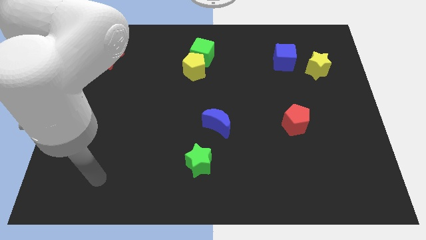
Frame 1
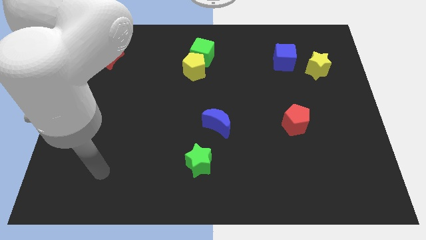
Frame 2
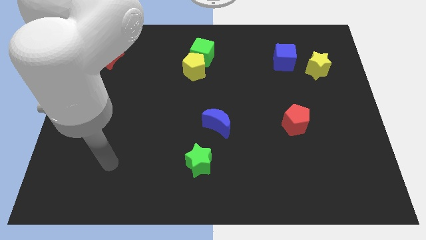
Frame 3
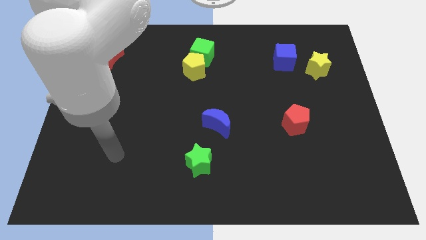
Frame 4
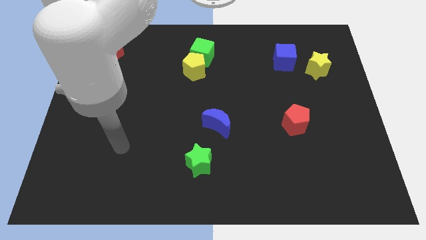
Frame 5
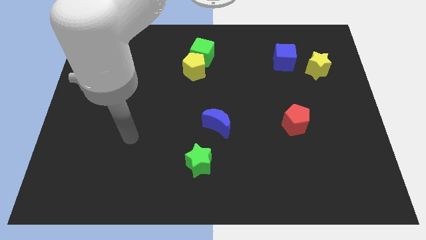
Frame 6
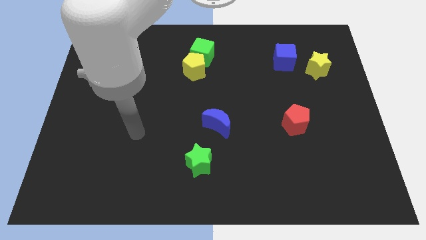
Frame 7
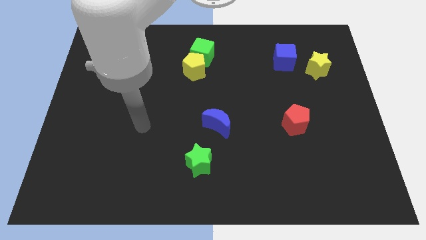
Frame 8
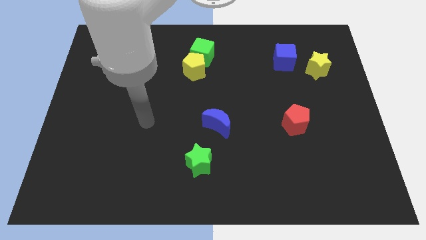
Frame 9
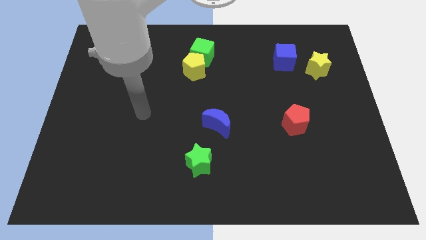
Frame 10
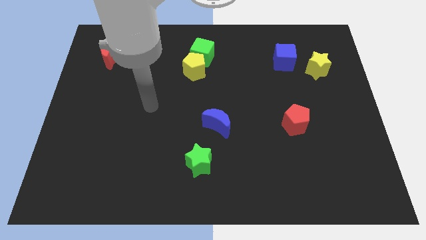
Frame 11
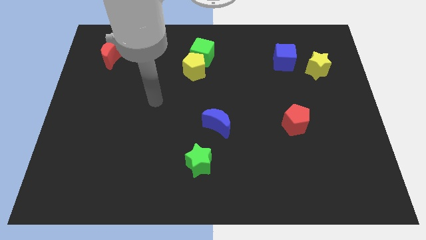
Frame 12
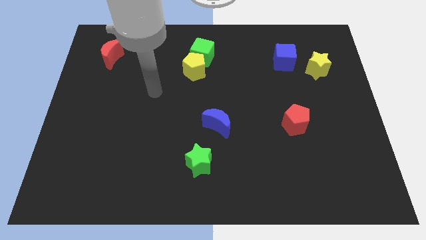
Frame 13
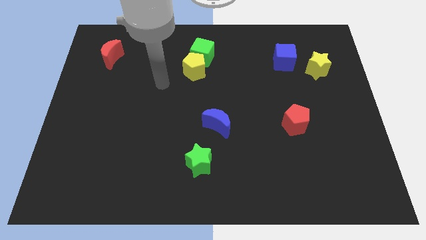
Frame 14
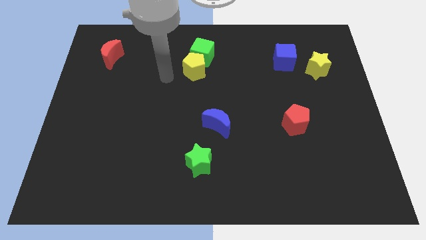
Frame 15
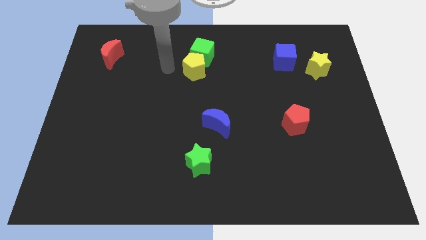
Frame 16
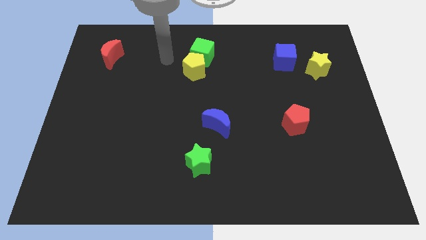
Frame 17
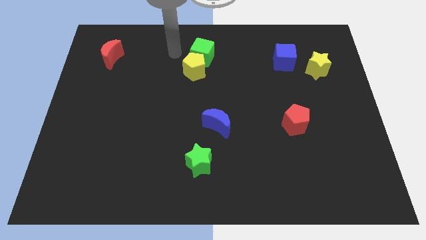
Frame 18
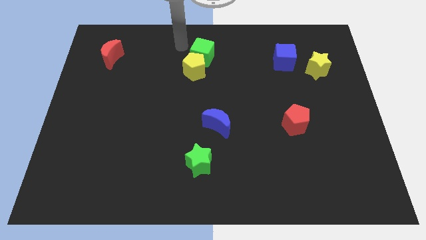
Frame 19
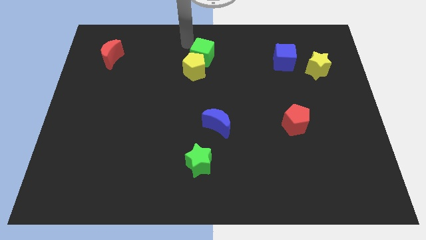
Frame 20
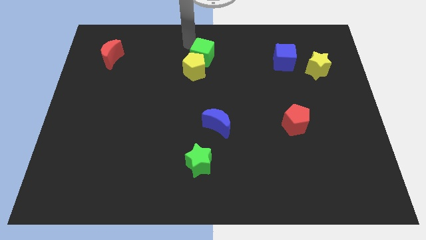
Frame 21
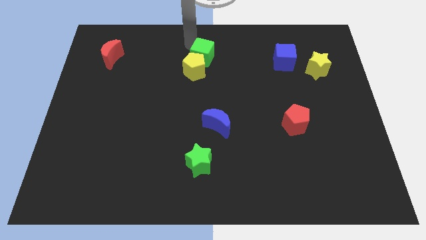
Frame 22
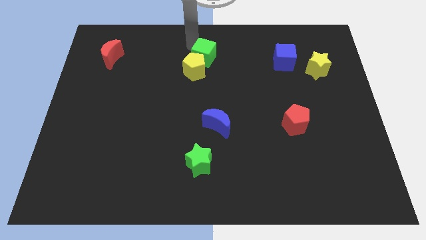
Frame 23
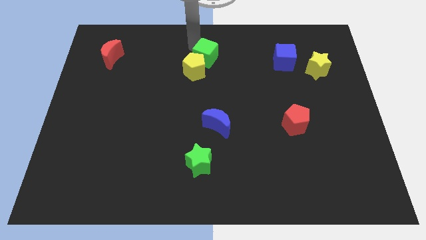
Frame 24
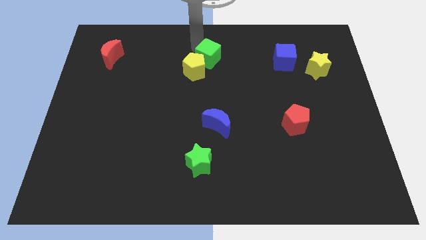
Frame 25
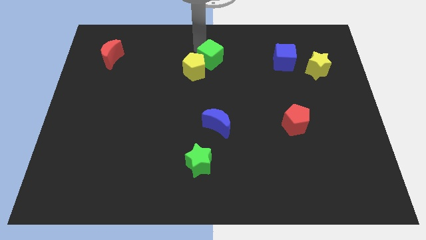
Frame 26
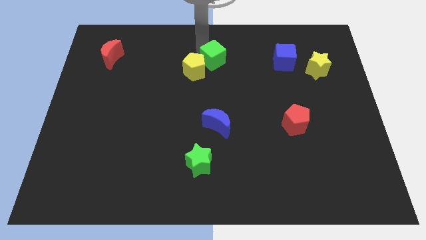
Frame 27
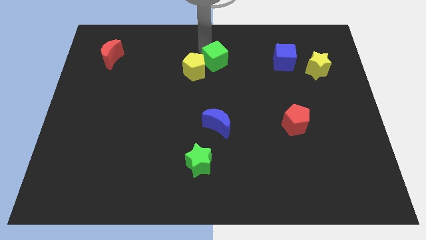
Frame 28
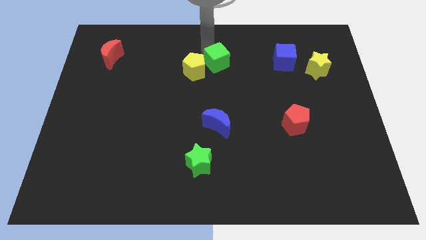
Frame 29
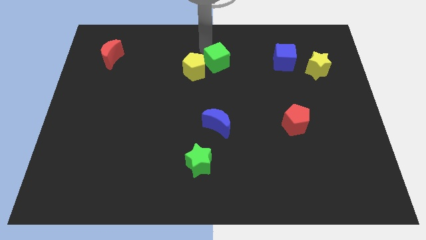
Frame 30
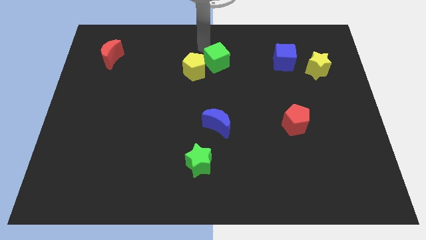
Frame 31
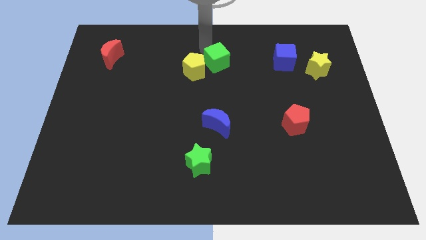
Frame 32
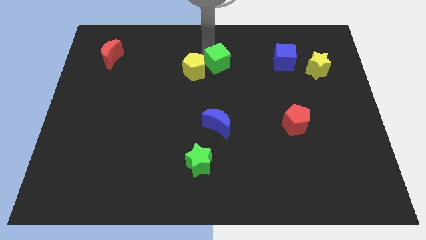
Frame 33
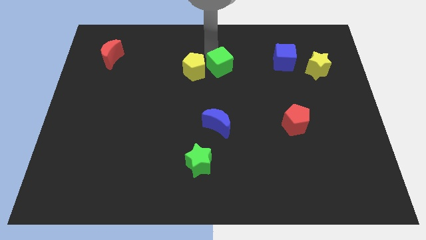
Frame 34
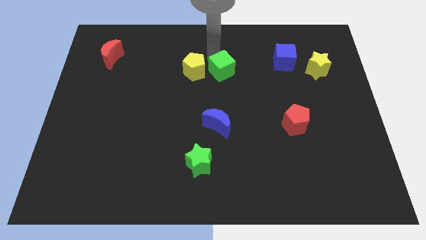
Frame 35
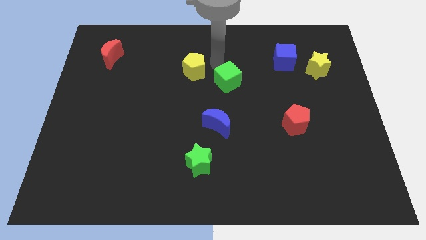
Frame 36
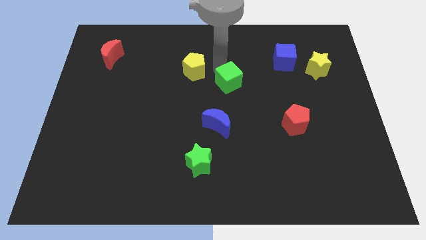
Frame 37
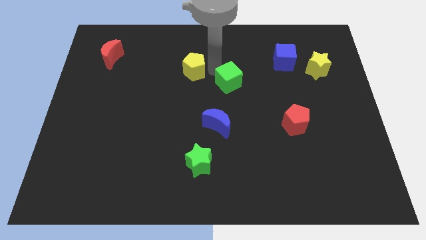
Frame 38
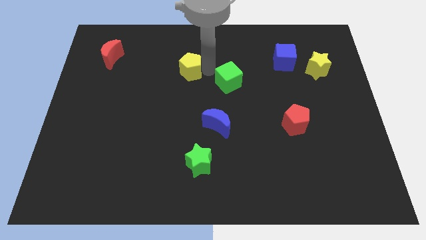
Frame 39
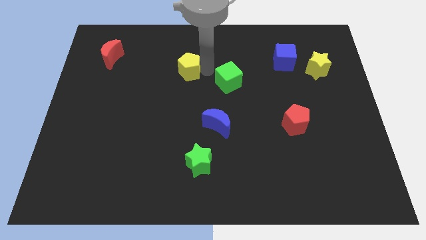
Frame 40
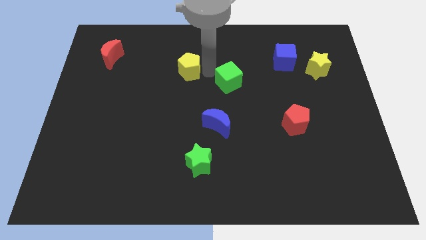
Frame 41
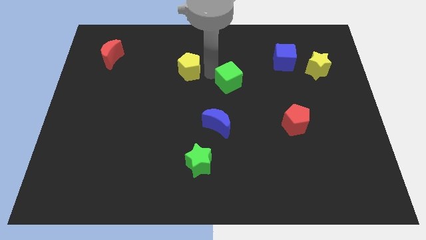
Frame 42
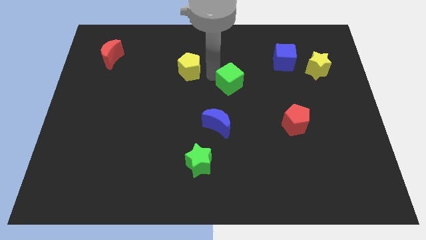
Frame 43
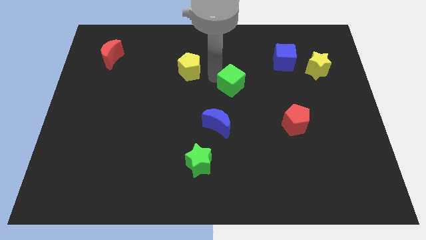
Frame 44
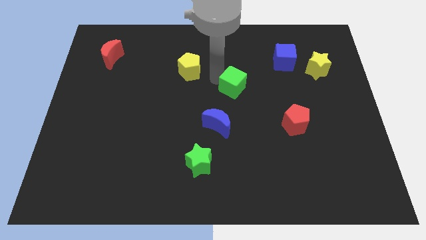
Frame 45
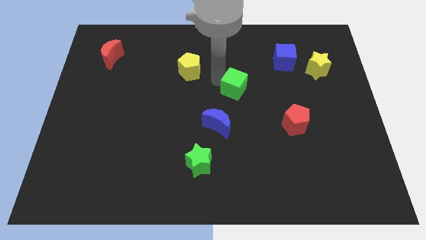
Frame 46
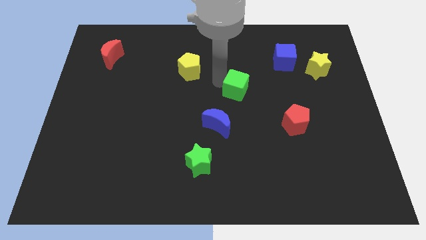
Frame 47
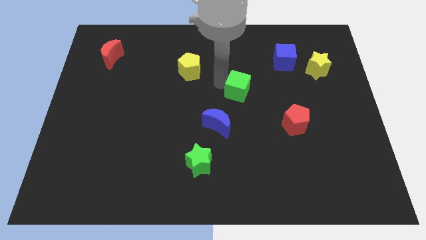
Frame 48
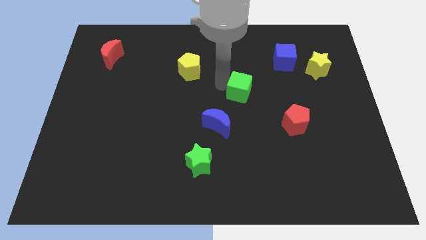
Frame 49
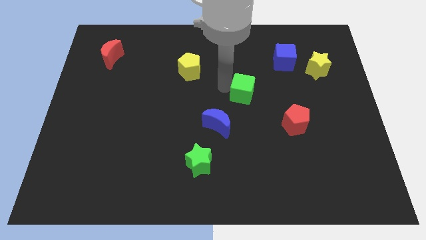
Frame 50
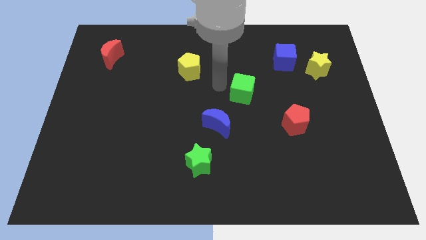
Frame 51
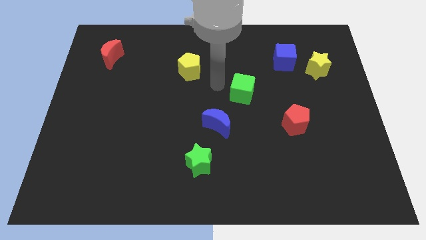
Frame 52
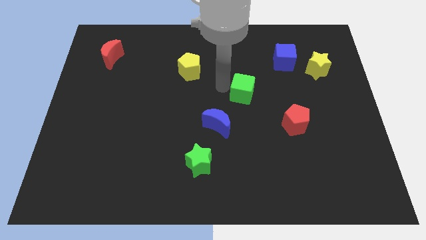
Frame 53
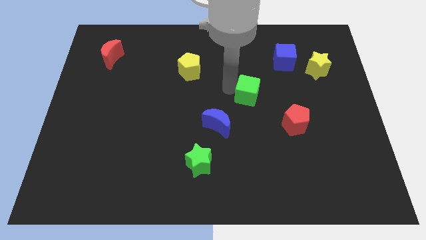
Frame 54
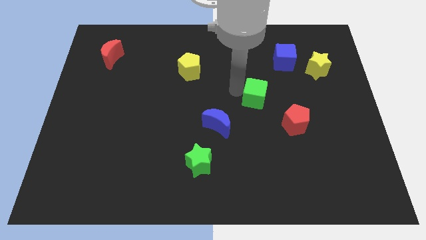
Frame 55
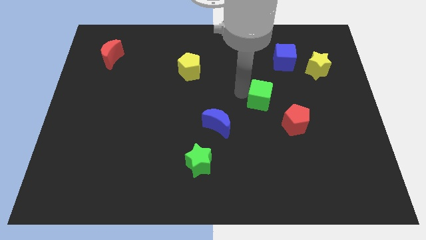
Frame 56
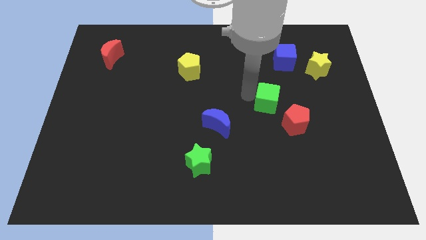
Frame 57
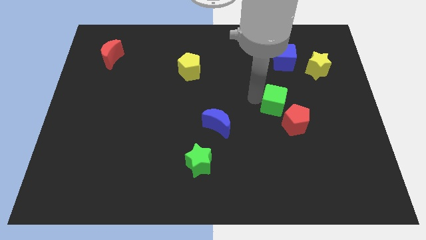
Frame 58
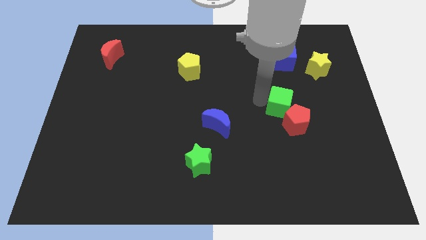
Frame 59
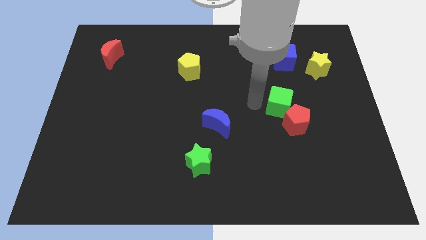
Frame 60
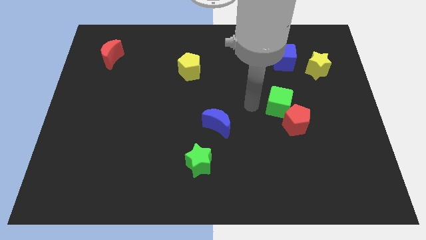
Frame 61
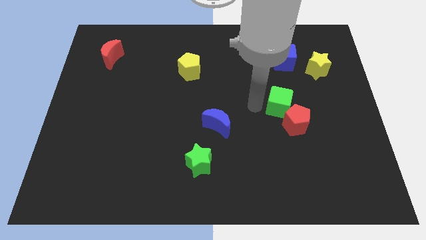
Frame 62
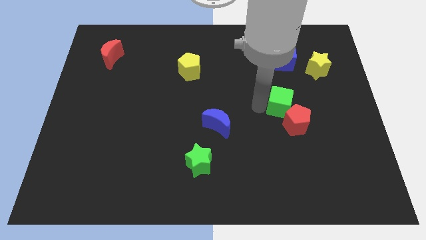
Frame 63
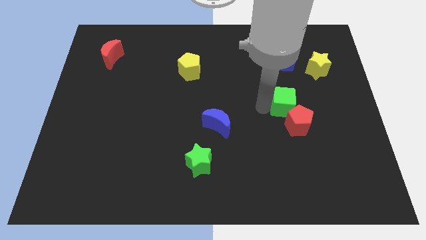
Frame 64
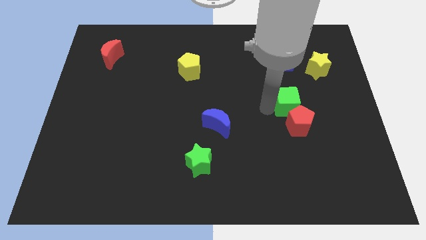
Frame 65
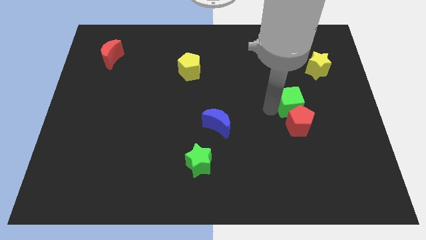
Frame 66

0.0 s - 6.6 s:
slide the green cube to the top right of the red pentagon

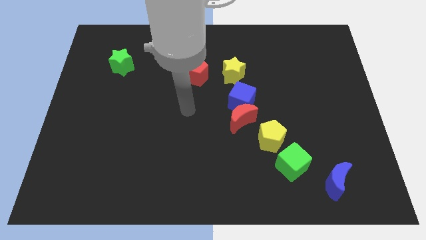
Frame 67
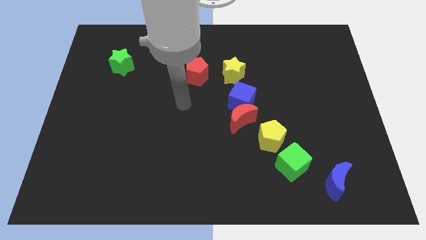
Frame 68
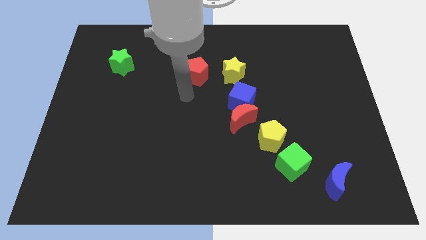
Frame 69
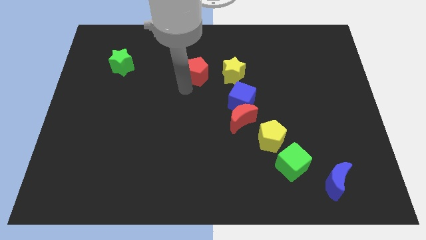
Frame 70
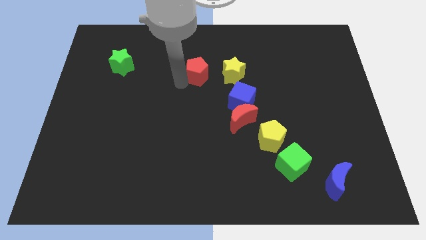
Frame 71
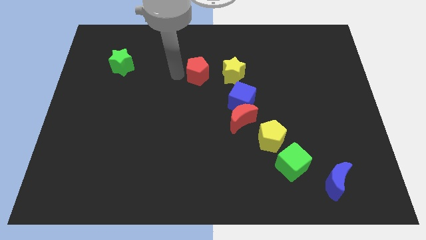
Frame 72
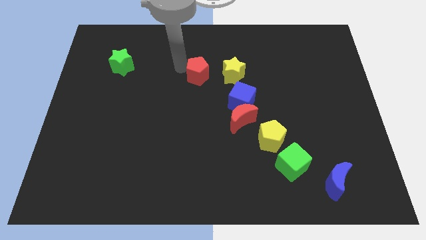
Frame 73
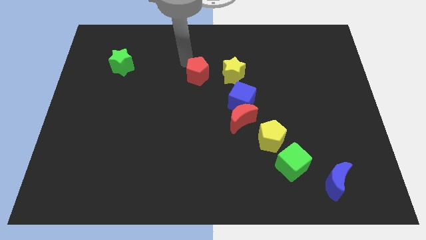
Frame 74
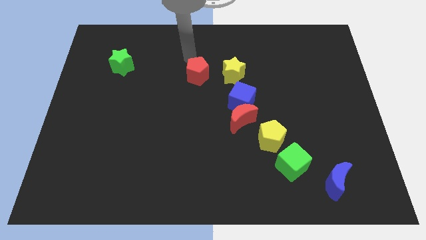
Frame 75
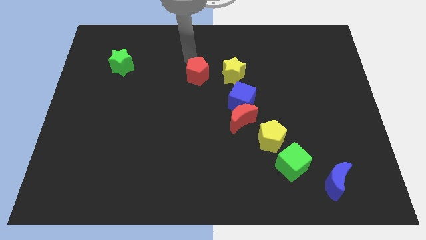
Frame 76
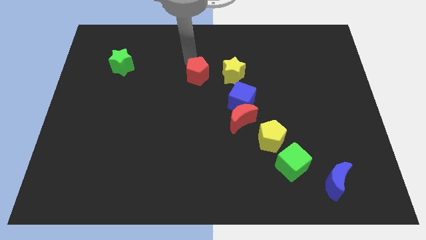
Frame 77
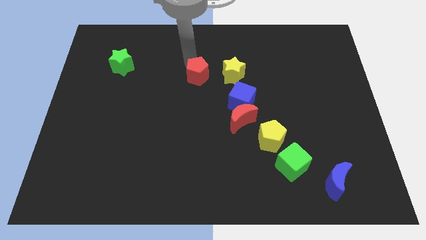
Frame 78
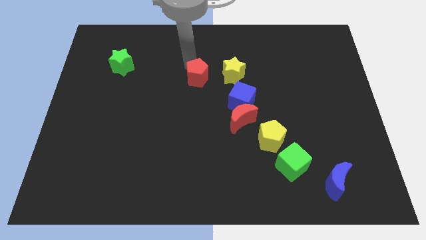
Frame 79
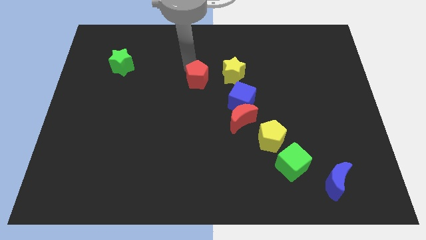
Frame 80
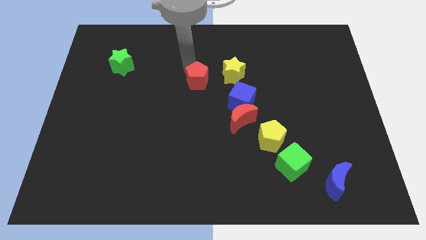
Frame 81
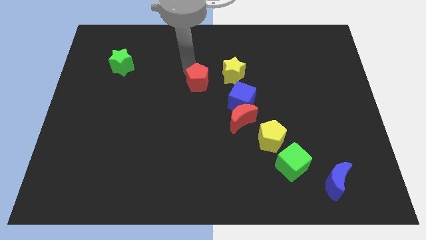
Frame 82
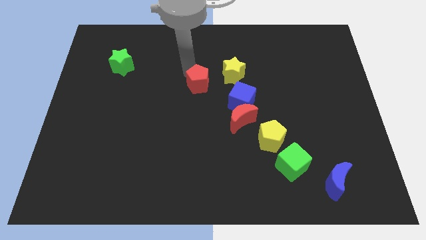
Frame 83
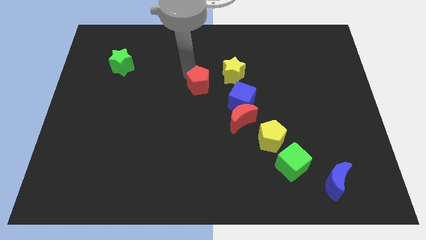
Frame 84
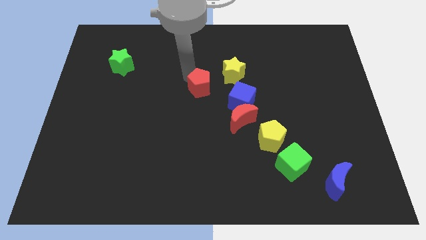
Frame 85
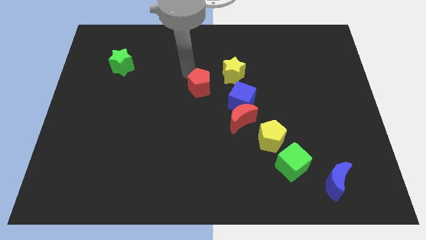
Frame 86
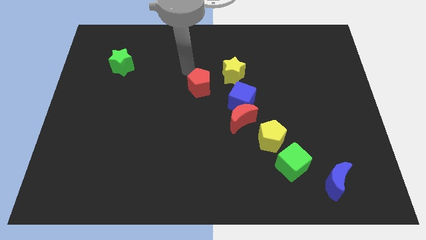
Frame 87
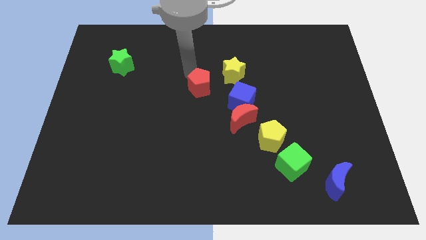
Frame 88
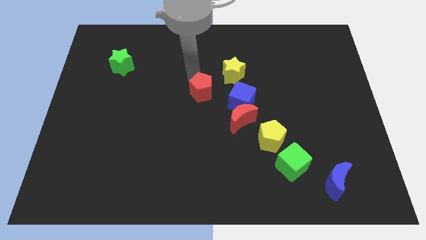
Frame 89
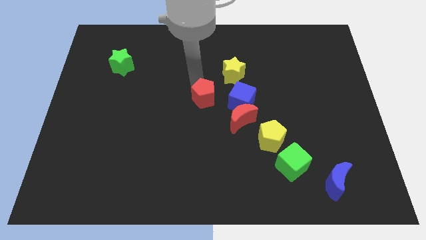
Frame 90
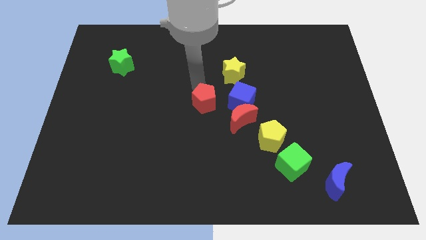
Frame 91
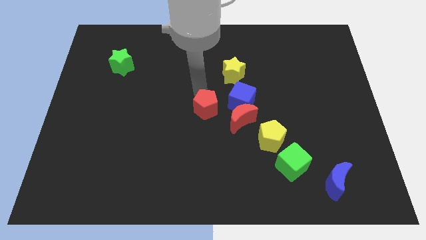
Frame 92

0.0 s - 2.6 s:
push the red pentagon diagonally down and to the left of the blue cube
